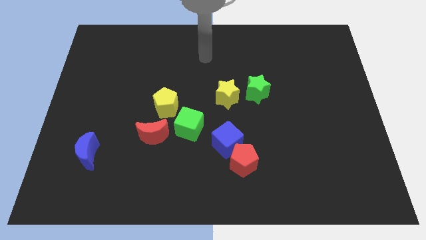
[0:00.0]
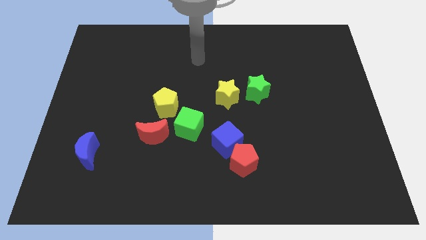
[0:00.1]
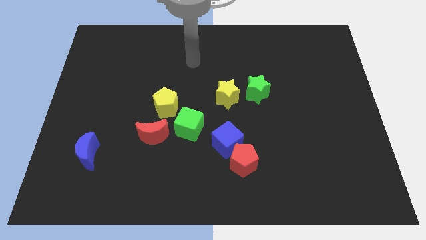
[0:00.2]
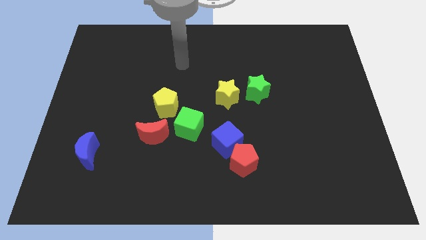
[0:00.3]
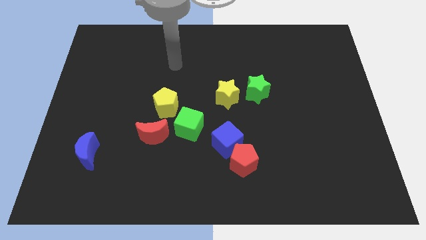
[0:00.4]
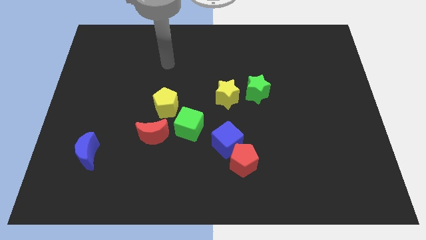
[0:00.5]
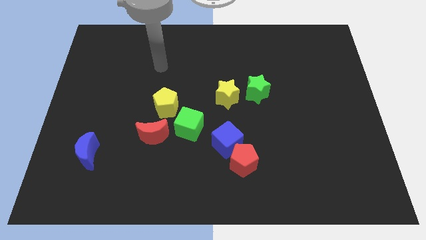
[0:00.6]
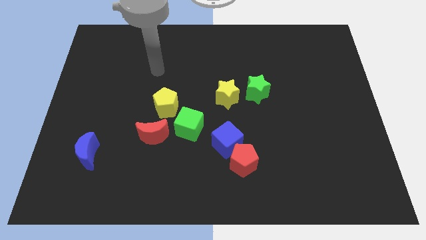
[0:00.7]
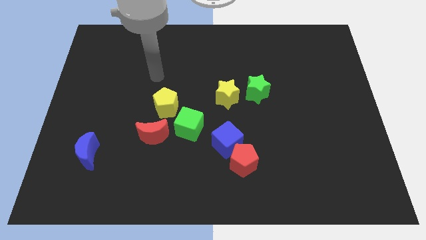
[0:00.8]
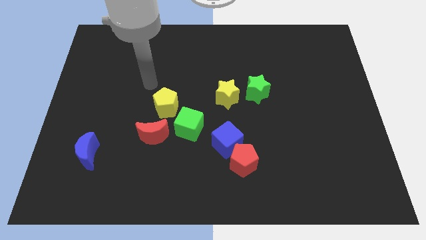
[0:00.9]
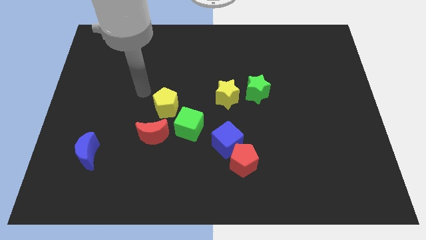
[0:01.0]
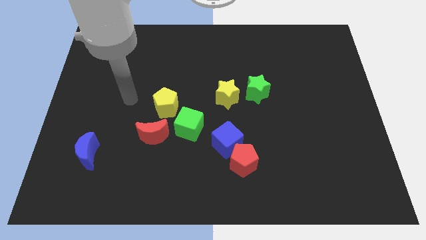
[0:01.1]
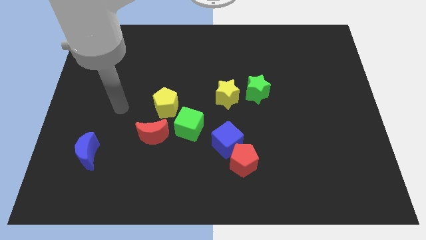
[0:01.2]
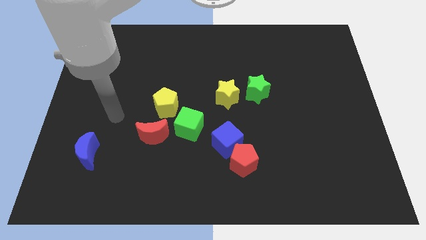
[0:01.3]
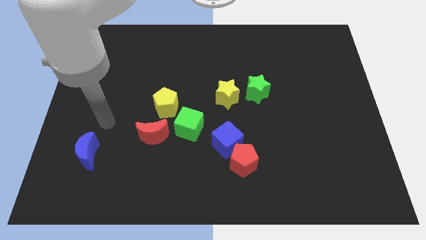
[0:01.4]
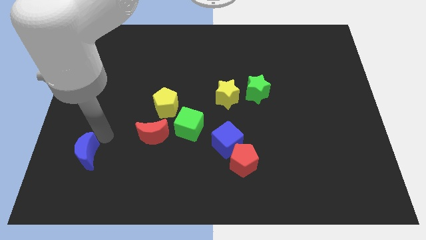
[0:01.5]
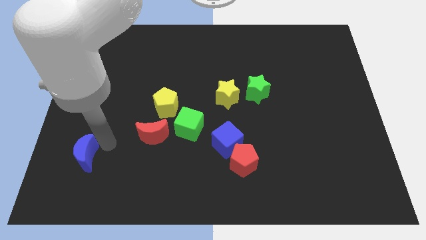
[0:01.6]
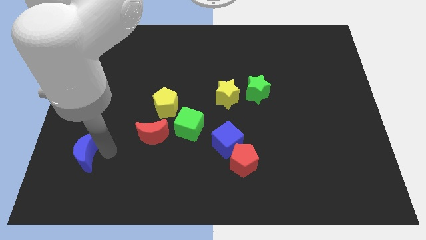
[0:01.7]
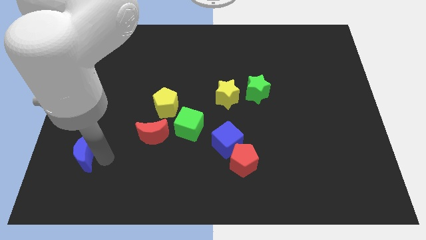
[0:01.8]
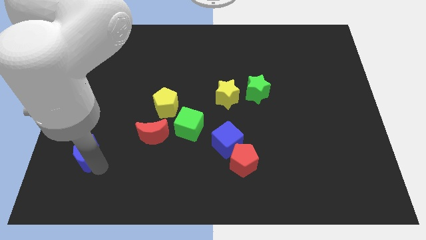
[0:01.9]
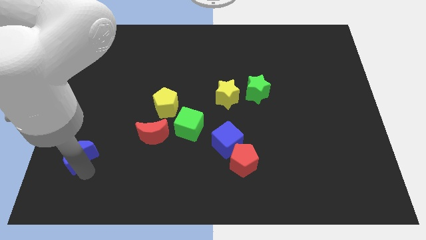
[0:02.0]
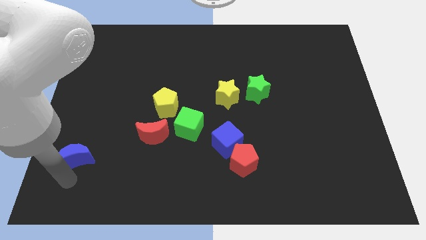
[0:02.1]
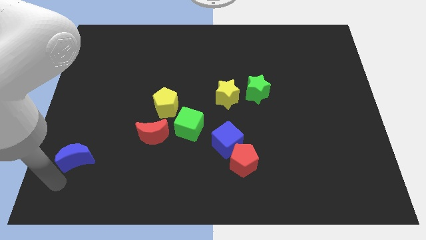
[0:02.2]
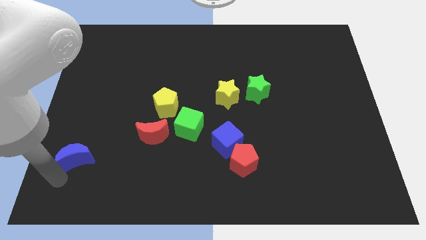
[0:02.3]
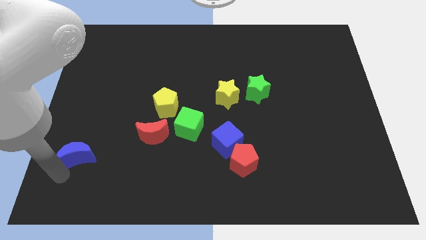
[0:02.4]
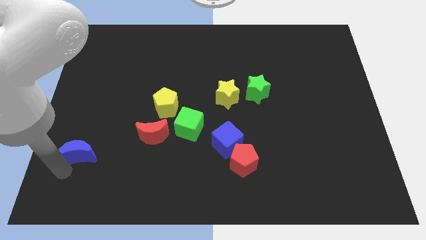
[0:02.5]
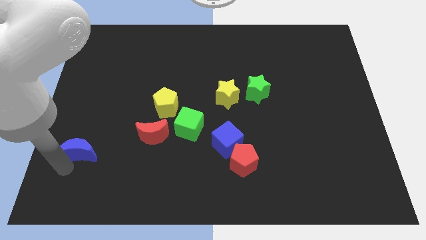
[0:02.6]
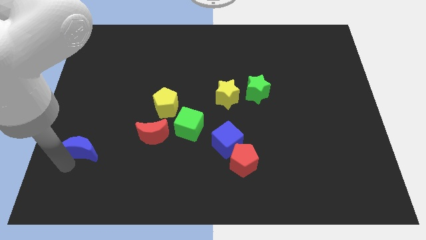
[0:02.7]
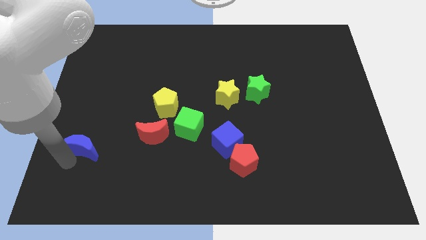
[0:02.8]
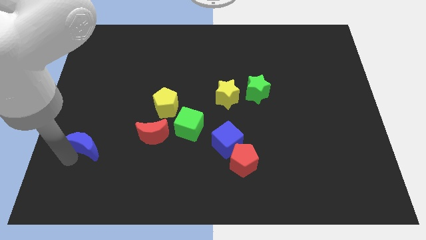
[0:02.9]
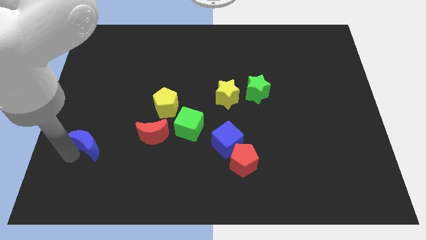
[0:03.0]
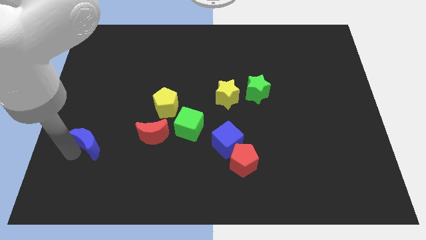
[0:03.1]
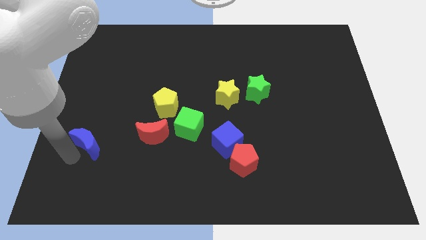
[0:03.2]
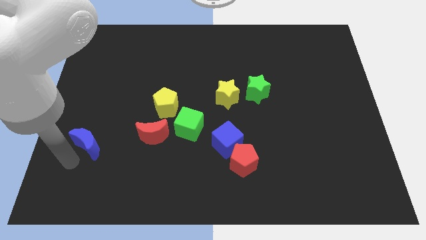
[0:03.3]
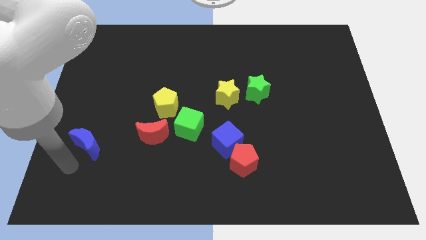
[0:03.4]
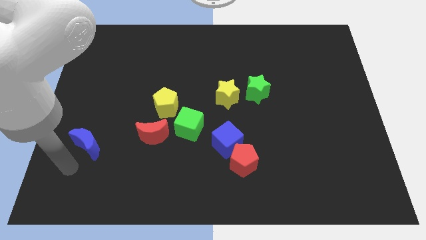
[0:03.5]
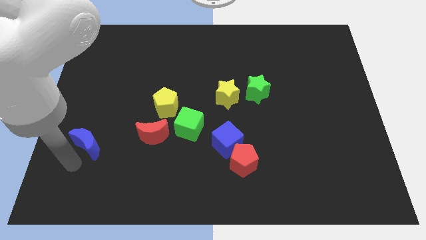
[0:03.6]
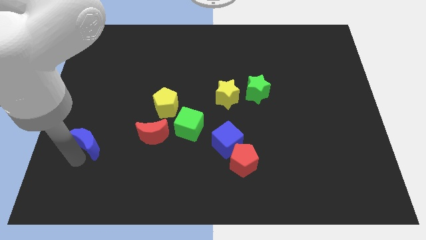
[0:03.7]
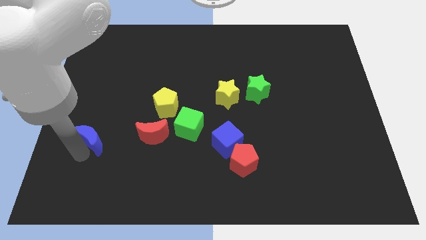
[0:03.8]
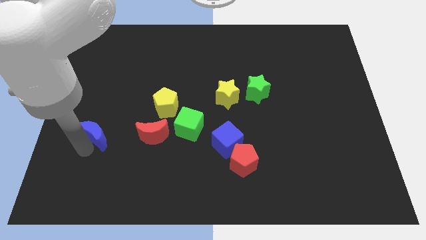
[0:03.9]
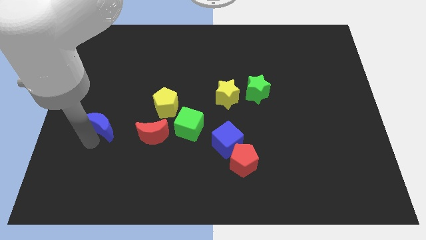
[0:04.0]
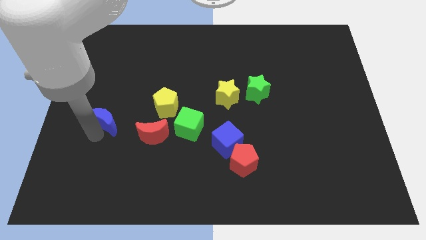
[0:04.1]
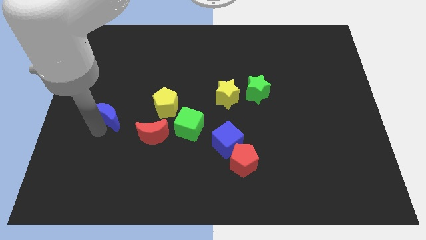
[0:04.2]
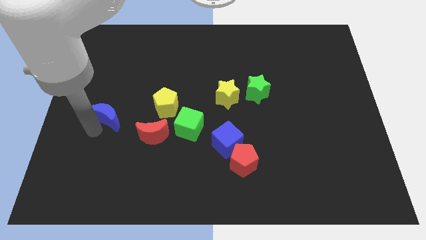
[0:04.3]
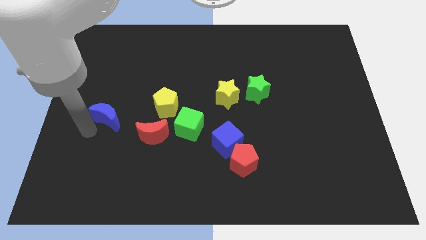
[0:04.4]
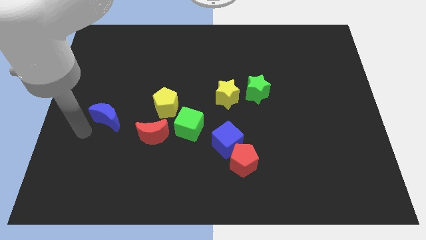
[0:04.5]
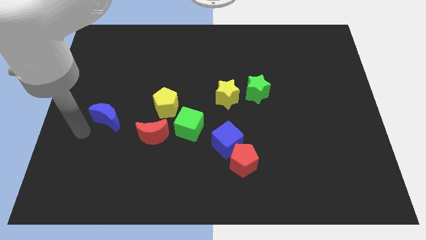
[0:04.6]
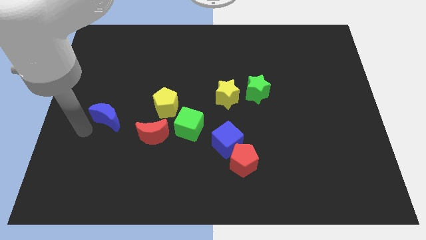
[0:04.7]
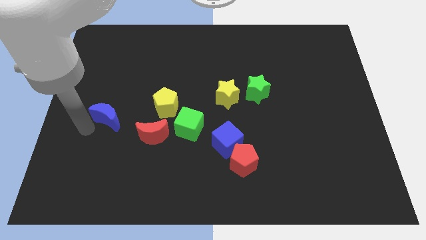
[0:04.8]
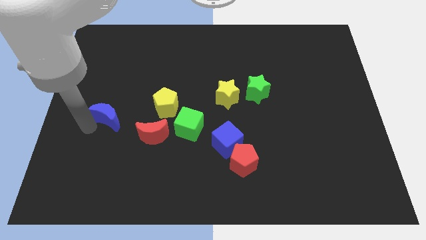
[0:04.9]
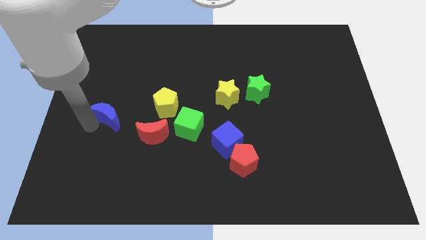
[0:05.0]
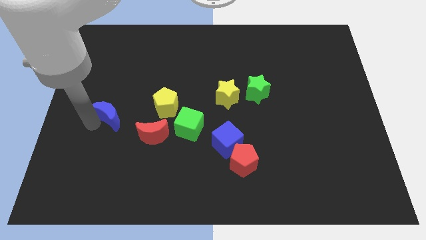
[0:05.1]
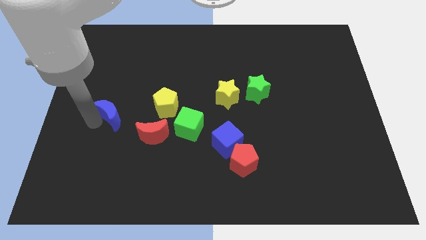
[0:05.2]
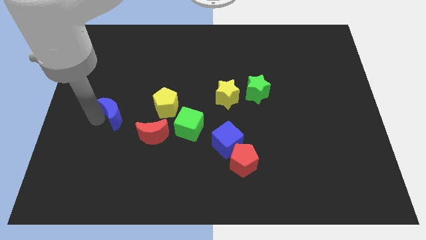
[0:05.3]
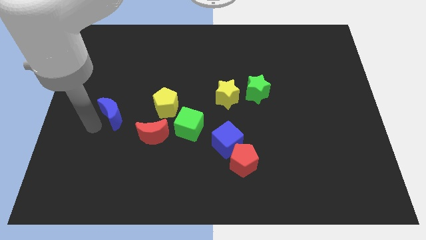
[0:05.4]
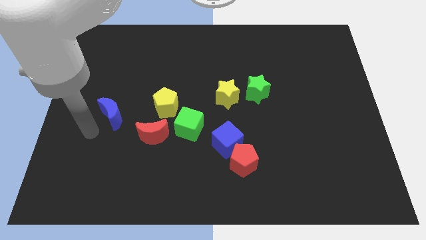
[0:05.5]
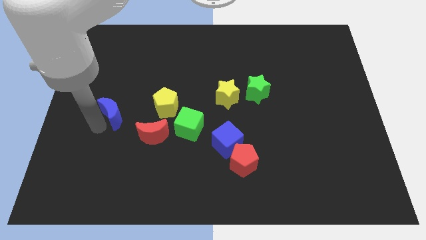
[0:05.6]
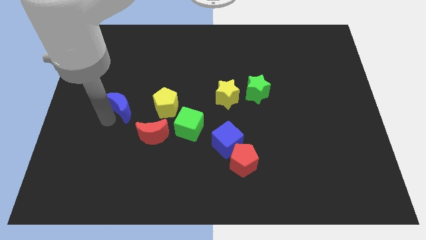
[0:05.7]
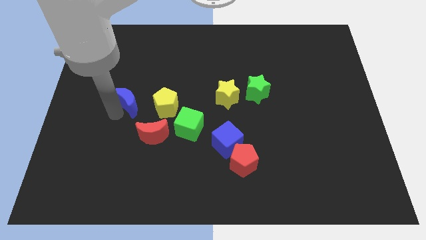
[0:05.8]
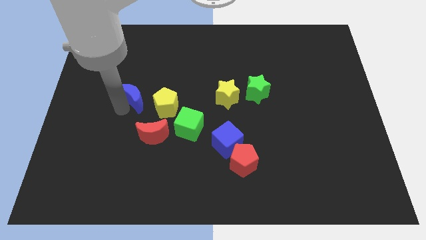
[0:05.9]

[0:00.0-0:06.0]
slide the blue moon to the top left side of the yellow pentagon

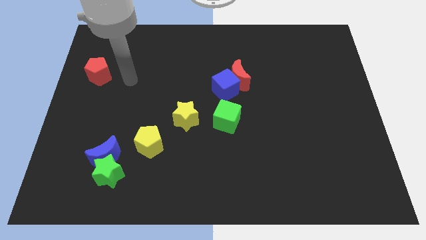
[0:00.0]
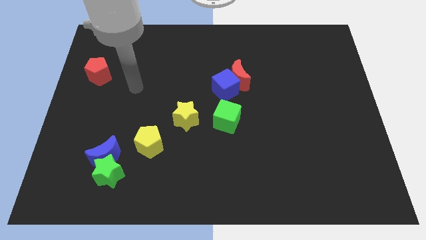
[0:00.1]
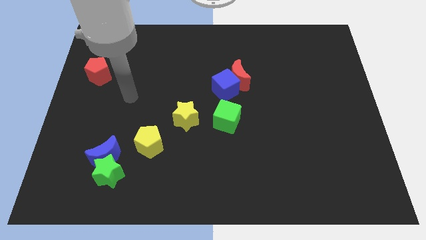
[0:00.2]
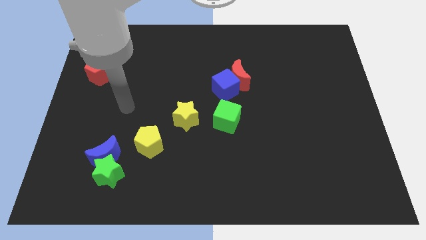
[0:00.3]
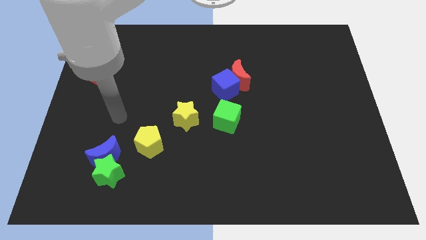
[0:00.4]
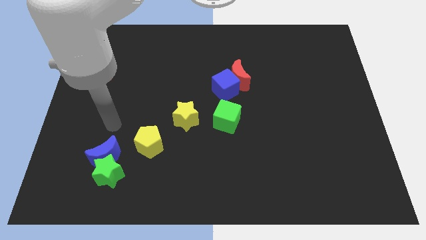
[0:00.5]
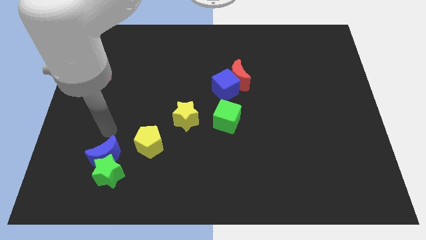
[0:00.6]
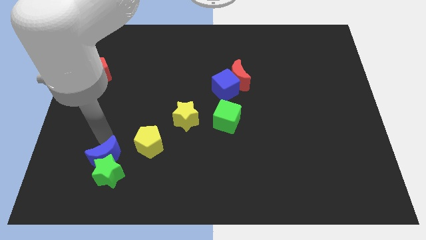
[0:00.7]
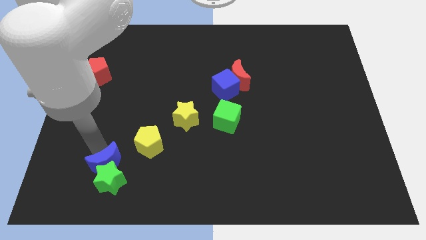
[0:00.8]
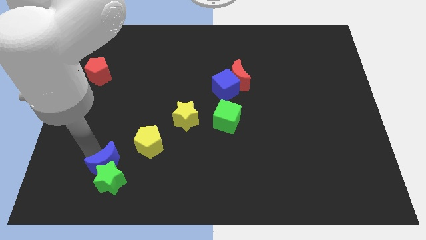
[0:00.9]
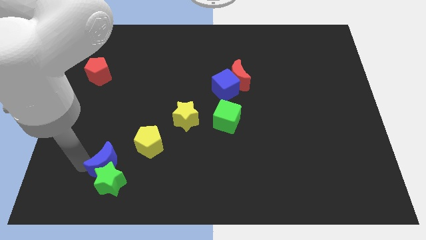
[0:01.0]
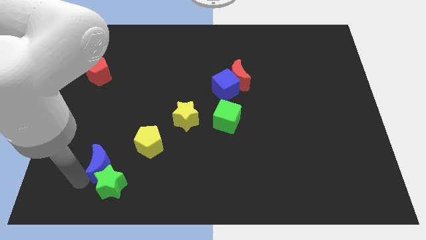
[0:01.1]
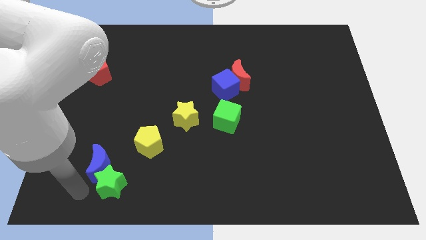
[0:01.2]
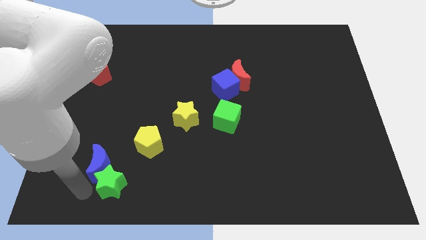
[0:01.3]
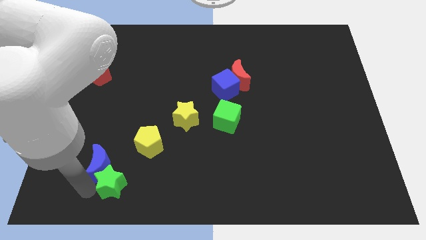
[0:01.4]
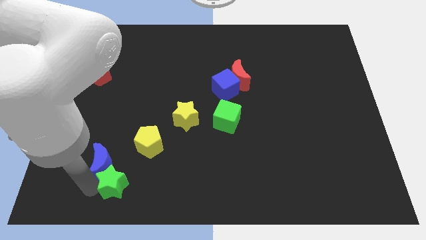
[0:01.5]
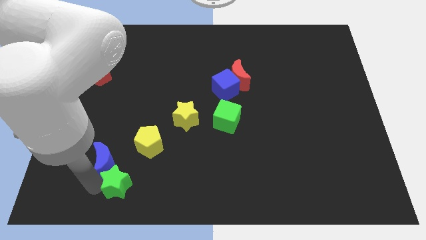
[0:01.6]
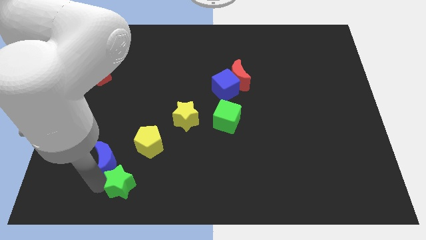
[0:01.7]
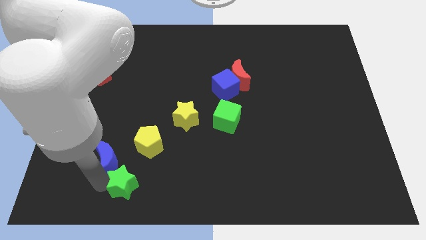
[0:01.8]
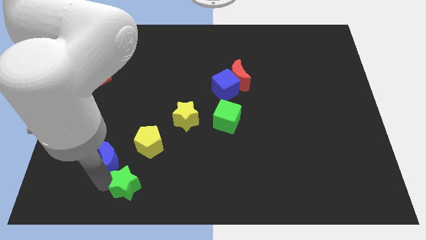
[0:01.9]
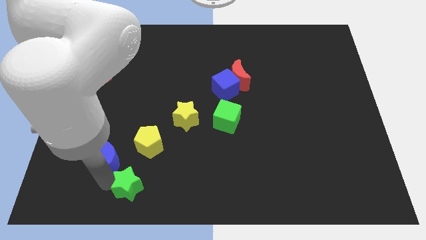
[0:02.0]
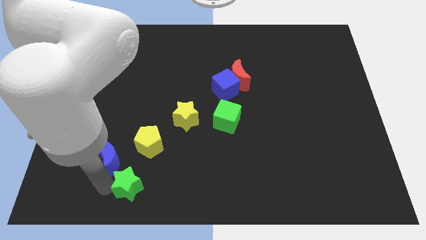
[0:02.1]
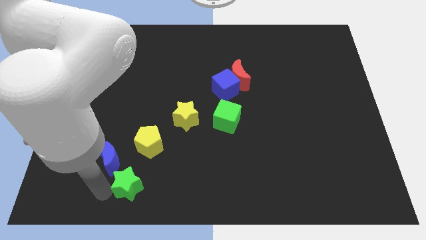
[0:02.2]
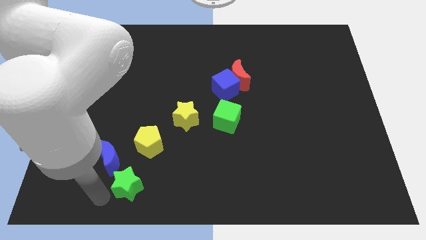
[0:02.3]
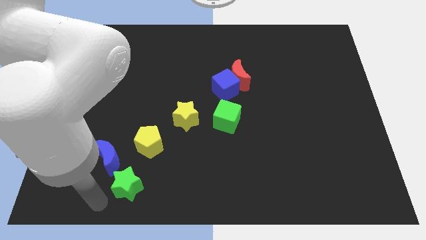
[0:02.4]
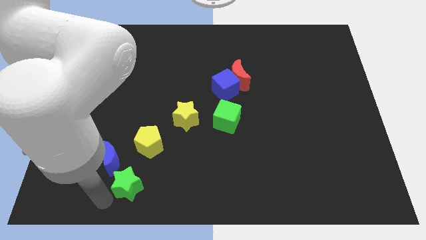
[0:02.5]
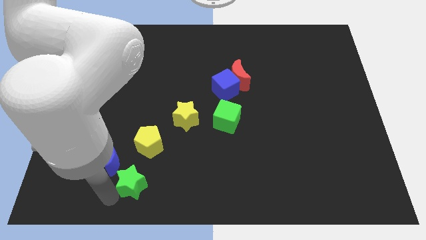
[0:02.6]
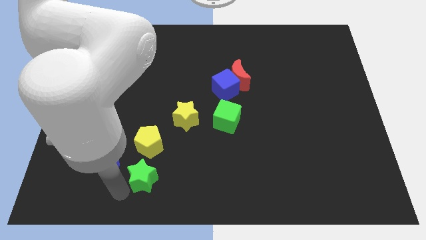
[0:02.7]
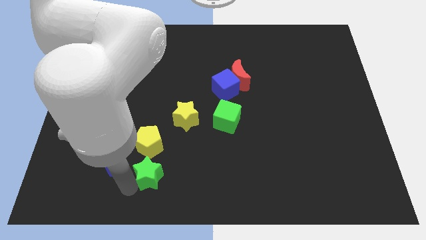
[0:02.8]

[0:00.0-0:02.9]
move the green star to the bottom right side of the yellow pentagon
